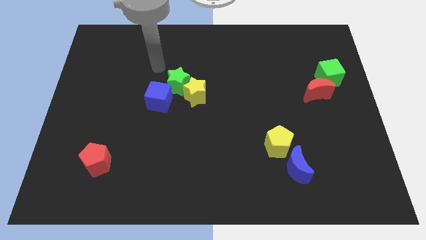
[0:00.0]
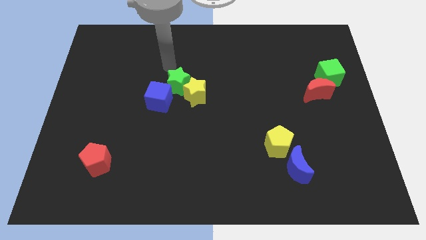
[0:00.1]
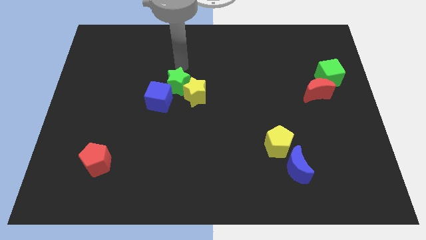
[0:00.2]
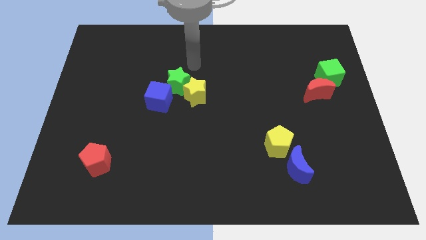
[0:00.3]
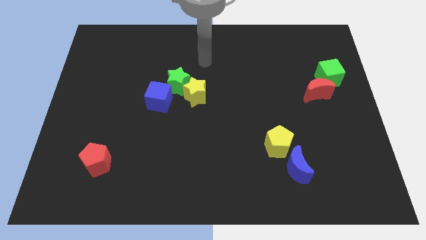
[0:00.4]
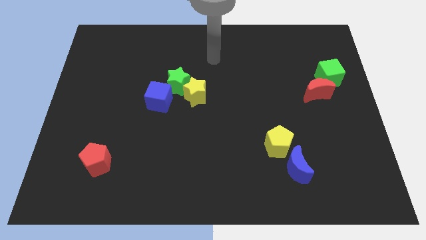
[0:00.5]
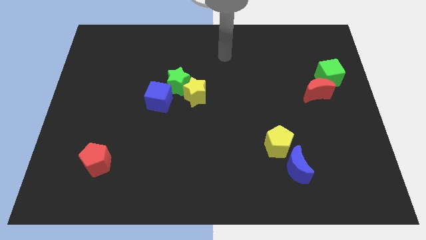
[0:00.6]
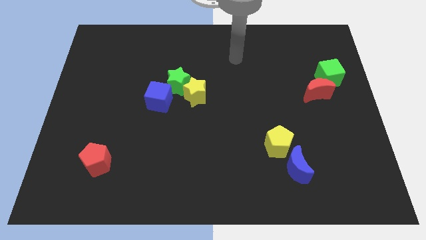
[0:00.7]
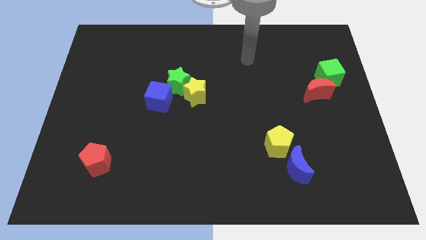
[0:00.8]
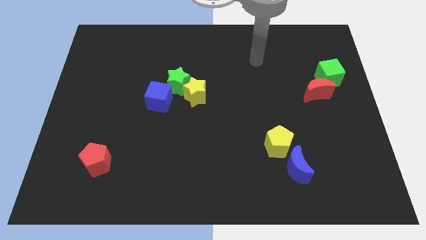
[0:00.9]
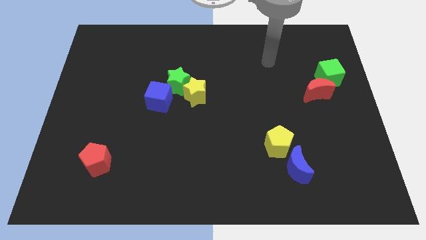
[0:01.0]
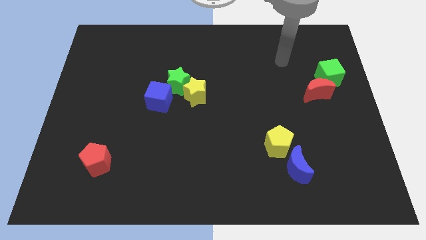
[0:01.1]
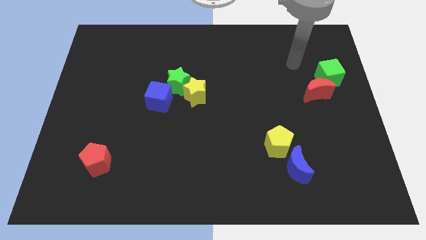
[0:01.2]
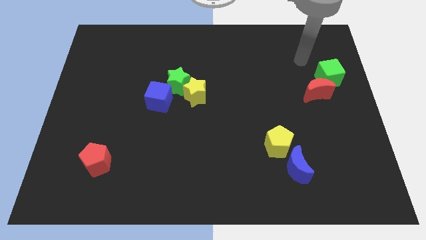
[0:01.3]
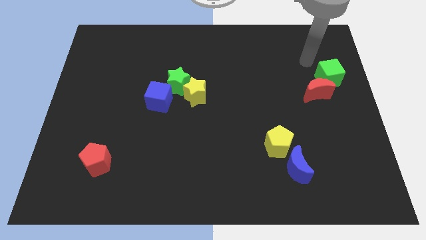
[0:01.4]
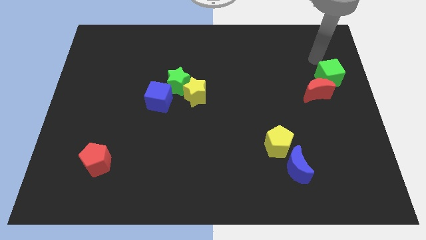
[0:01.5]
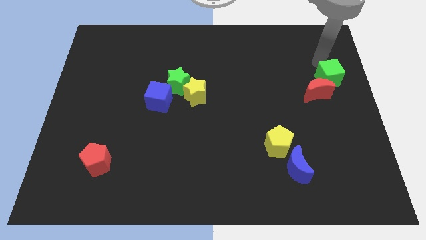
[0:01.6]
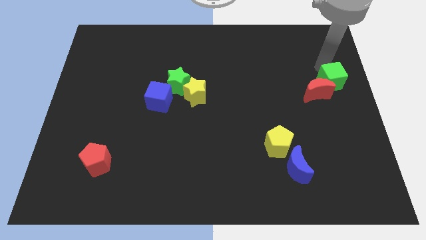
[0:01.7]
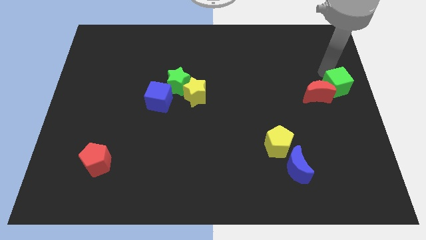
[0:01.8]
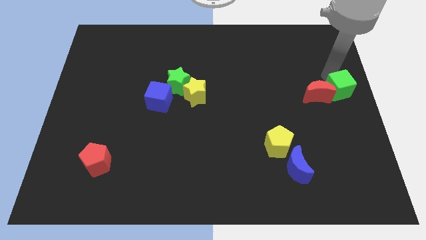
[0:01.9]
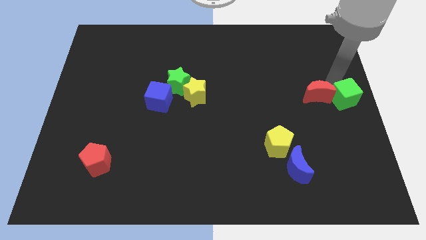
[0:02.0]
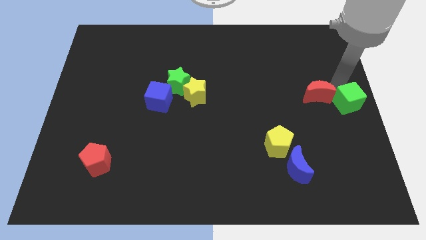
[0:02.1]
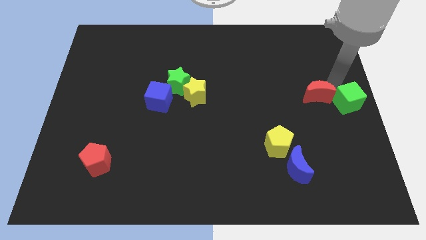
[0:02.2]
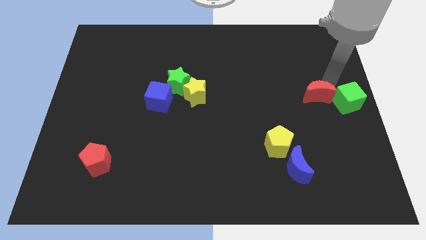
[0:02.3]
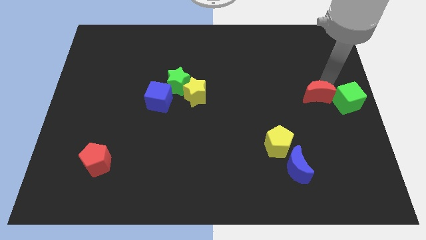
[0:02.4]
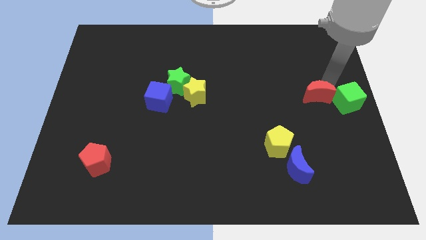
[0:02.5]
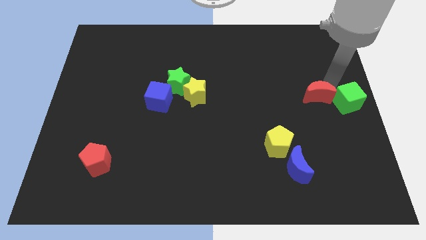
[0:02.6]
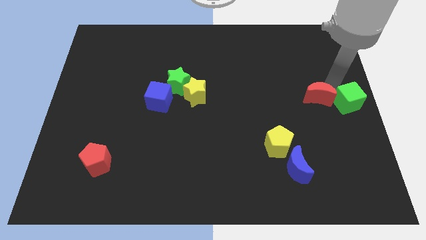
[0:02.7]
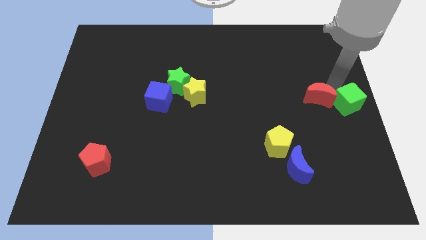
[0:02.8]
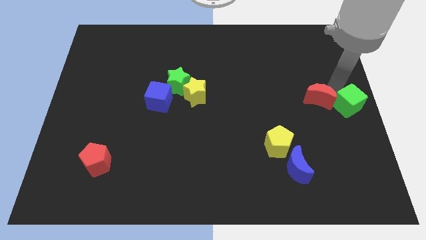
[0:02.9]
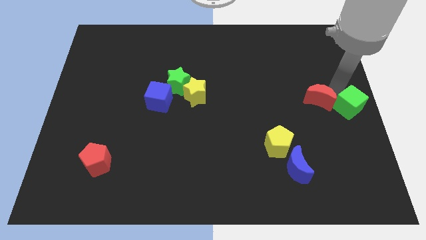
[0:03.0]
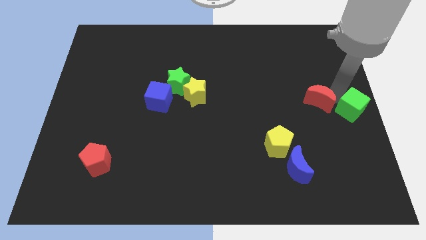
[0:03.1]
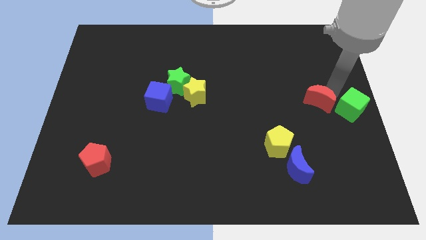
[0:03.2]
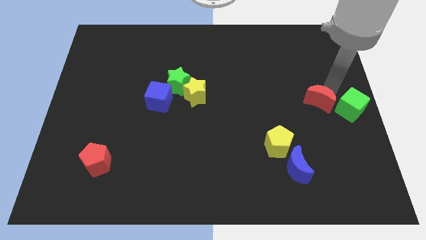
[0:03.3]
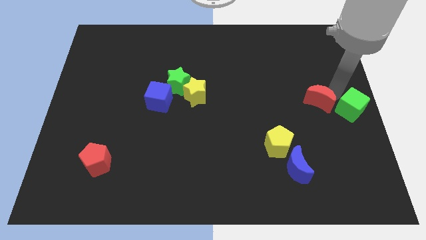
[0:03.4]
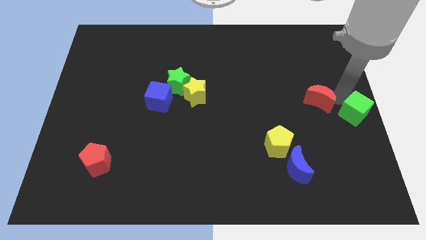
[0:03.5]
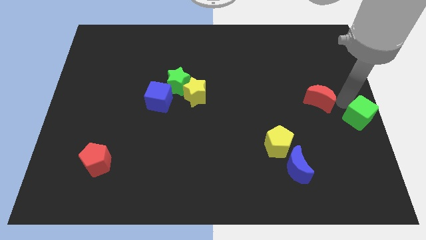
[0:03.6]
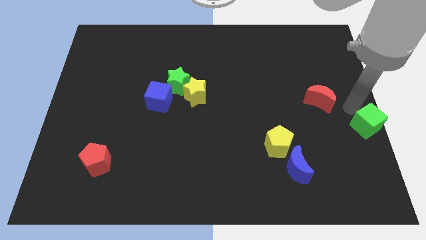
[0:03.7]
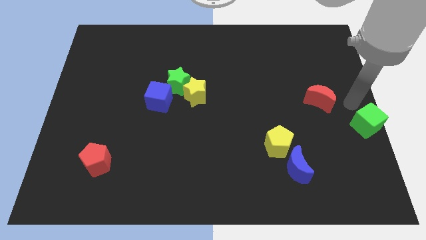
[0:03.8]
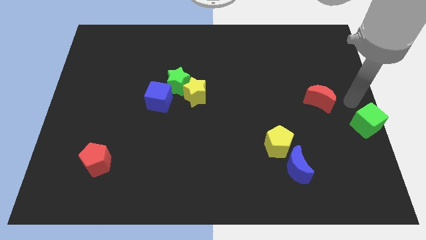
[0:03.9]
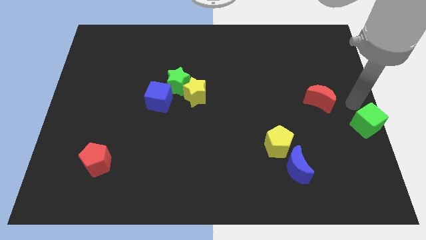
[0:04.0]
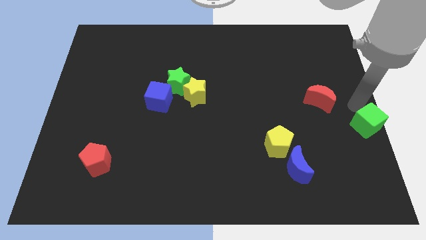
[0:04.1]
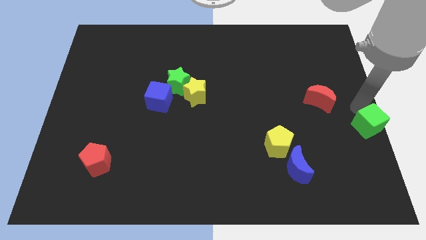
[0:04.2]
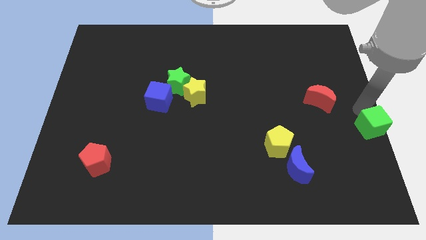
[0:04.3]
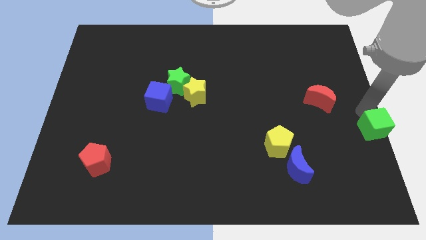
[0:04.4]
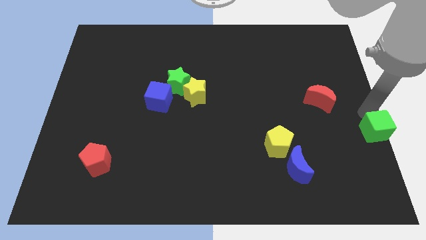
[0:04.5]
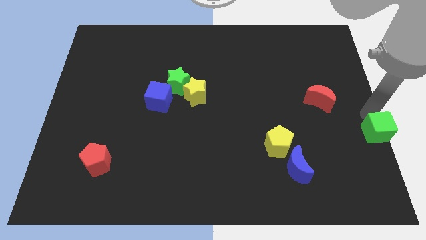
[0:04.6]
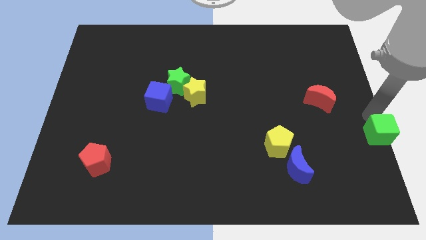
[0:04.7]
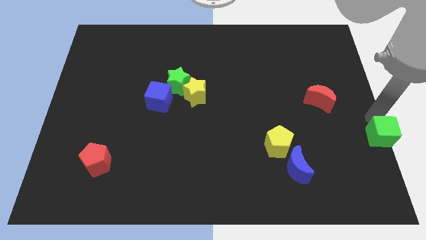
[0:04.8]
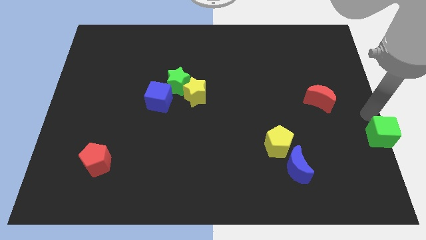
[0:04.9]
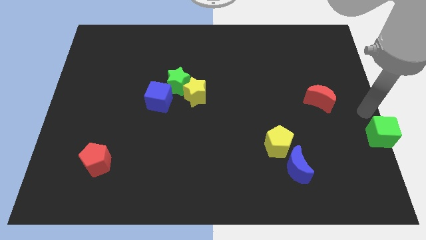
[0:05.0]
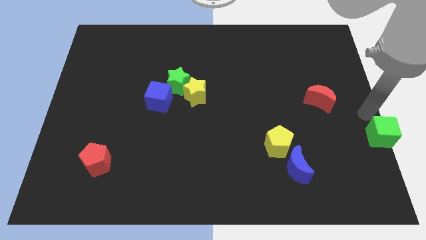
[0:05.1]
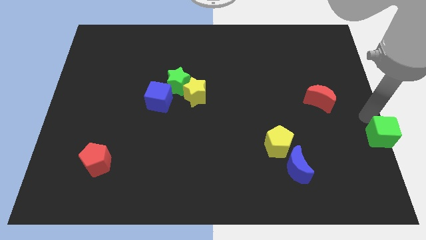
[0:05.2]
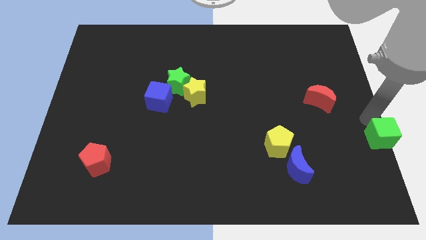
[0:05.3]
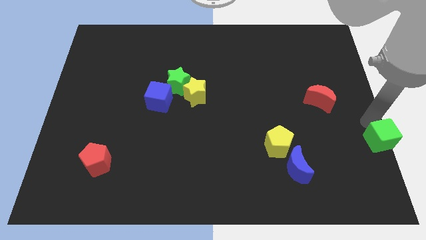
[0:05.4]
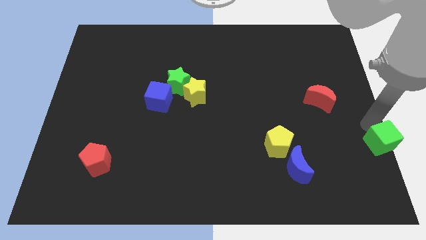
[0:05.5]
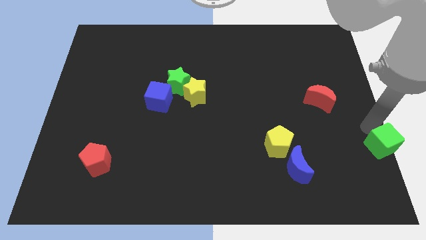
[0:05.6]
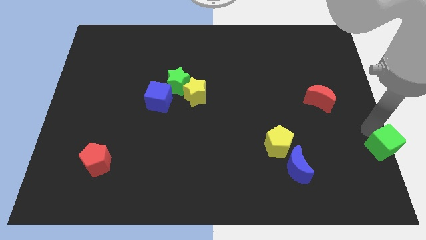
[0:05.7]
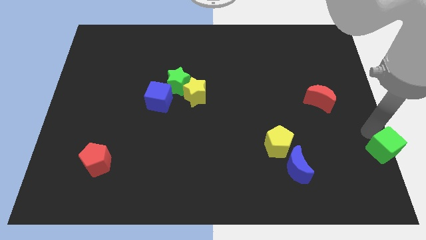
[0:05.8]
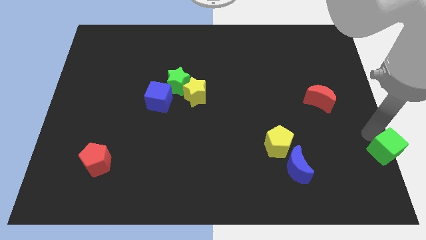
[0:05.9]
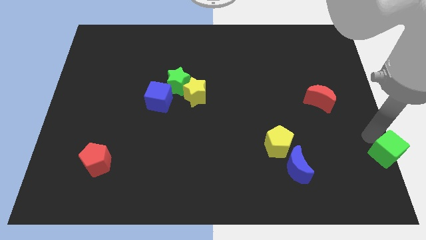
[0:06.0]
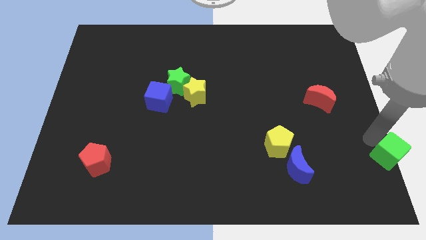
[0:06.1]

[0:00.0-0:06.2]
move the green cube to the bottom right of the board
